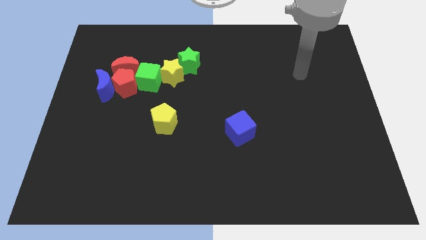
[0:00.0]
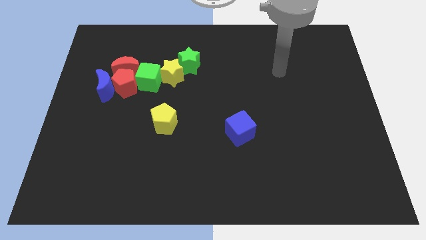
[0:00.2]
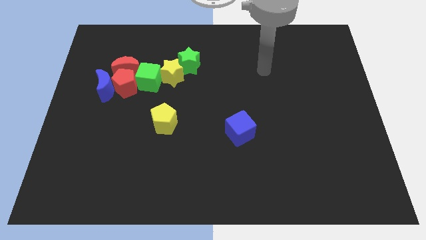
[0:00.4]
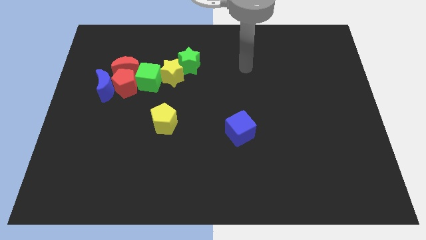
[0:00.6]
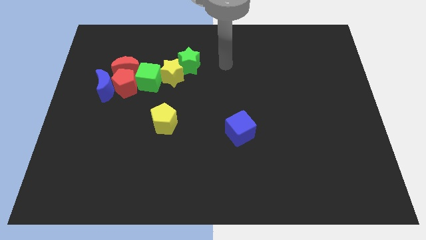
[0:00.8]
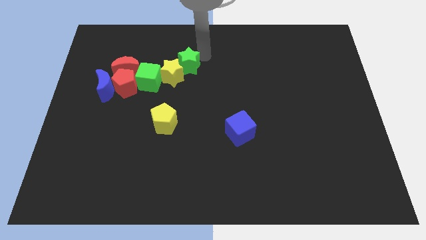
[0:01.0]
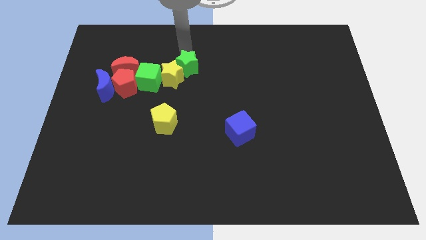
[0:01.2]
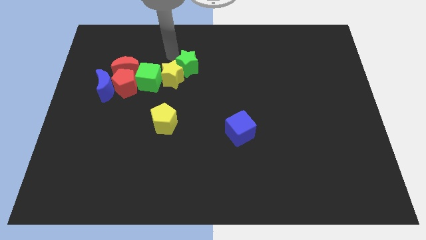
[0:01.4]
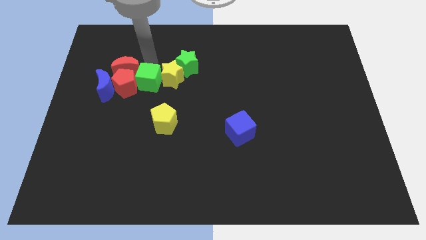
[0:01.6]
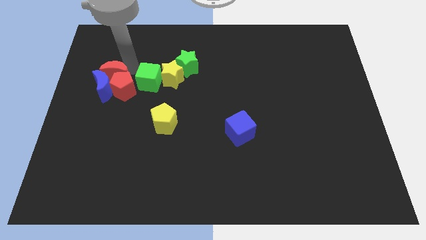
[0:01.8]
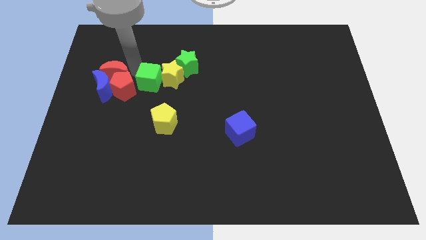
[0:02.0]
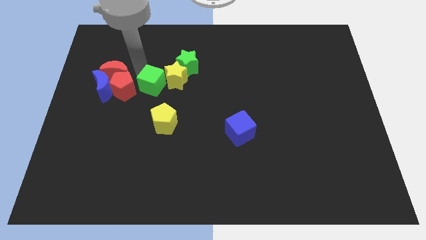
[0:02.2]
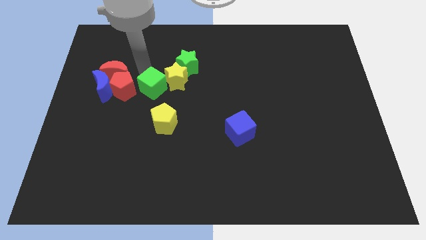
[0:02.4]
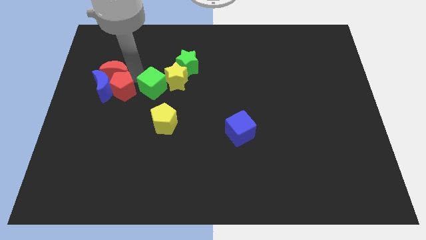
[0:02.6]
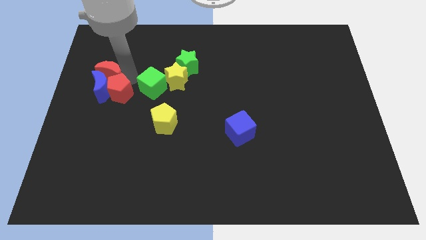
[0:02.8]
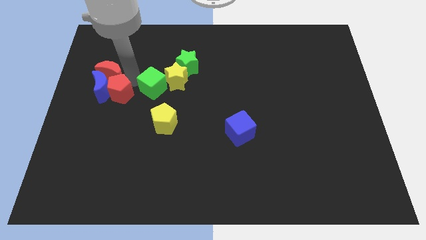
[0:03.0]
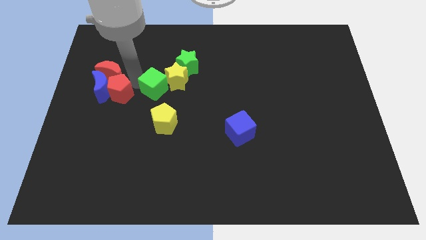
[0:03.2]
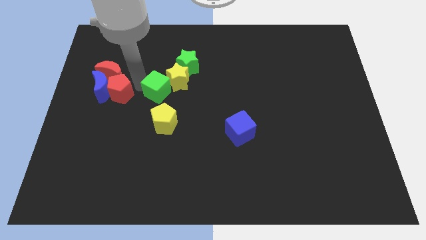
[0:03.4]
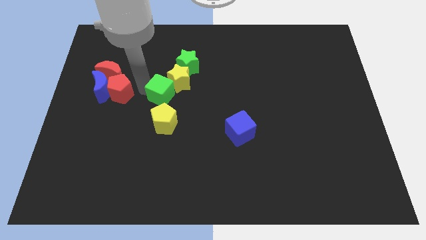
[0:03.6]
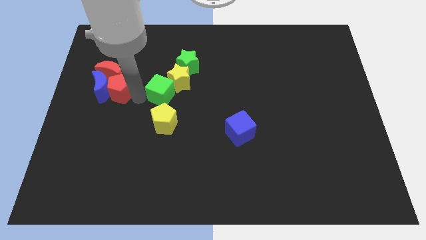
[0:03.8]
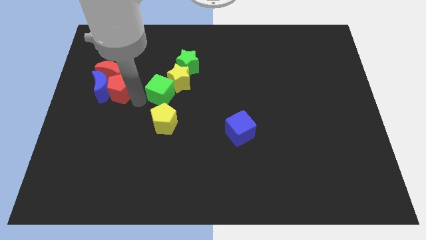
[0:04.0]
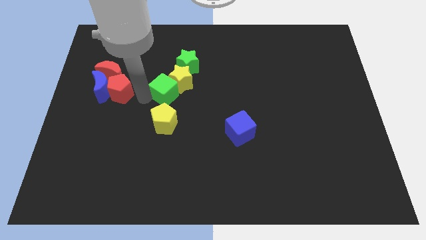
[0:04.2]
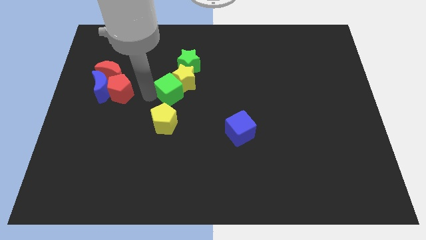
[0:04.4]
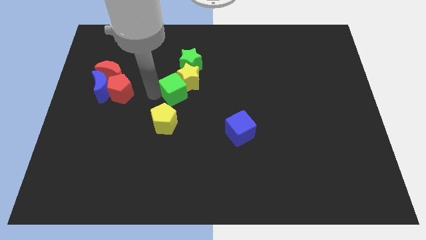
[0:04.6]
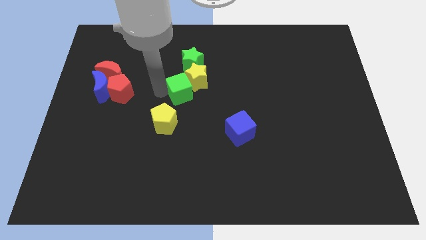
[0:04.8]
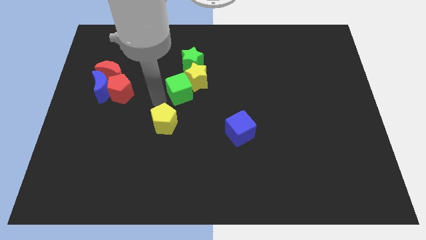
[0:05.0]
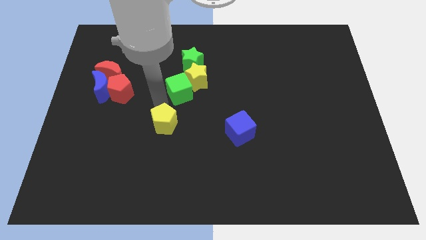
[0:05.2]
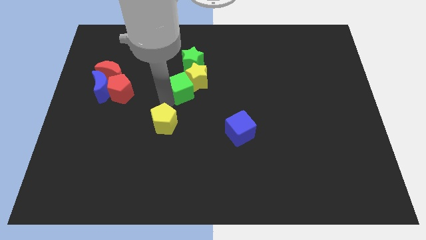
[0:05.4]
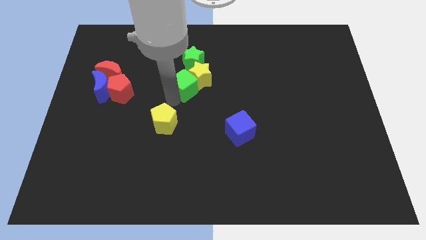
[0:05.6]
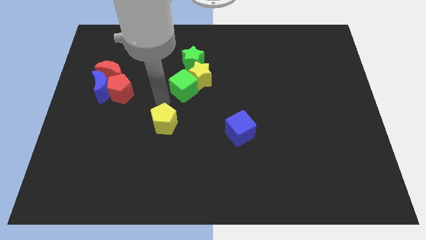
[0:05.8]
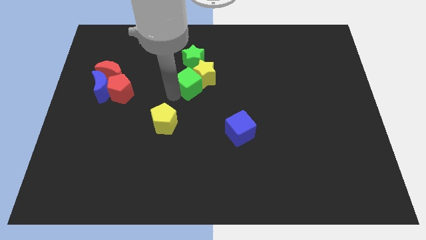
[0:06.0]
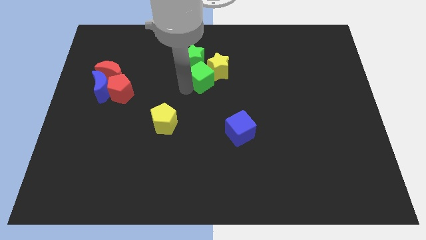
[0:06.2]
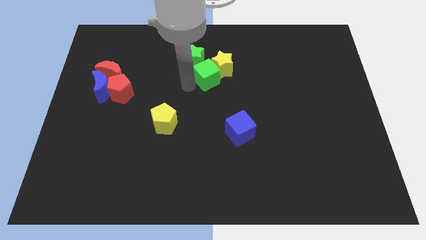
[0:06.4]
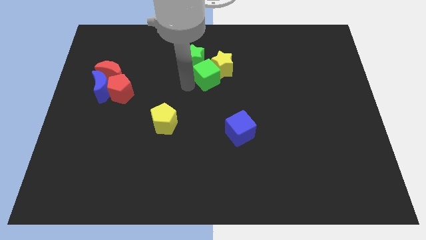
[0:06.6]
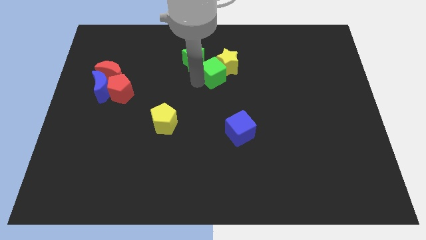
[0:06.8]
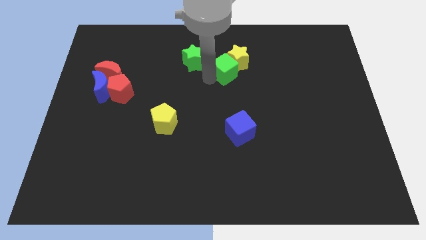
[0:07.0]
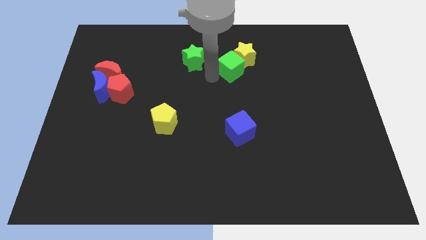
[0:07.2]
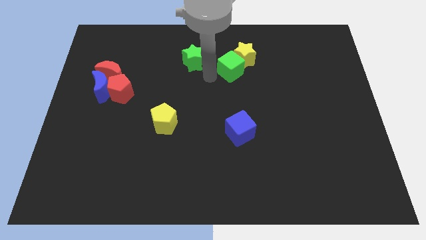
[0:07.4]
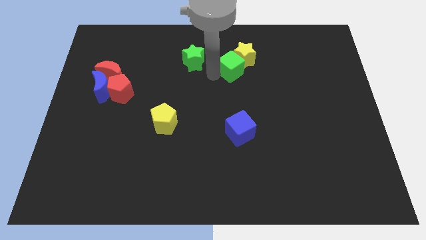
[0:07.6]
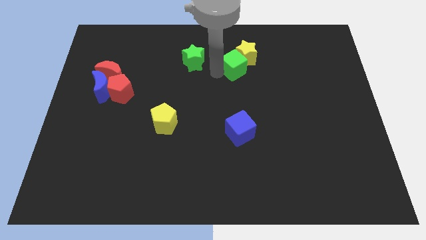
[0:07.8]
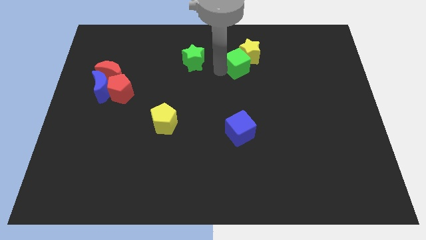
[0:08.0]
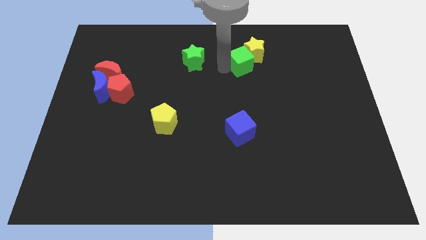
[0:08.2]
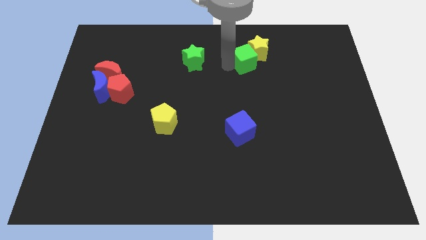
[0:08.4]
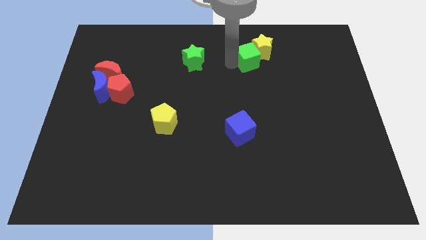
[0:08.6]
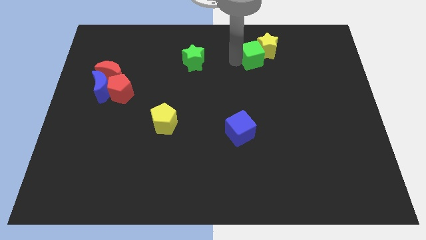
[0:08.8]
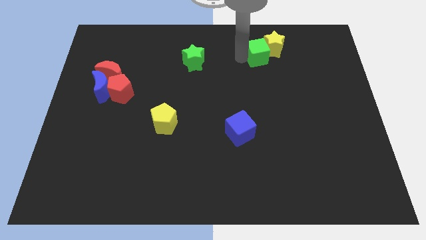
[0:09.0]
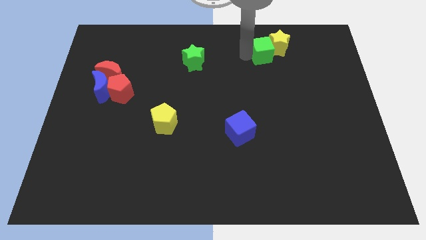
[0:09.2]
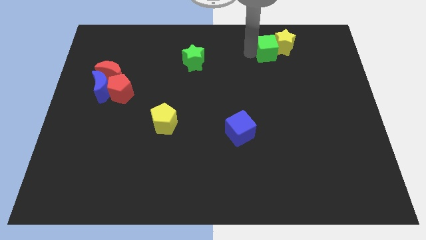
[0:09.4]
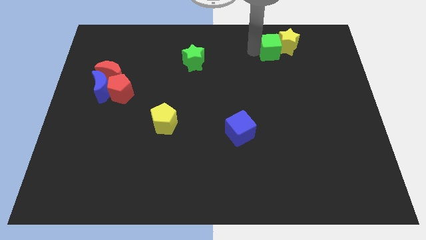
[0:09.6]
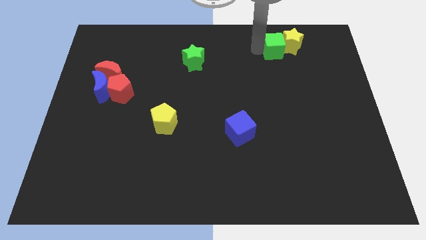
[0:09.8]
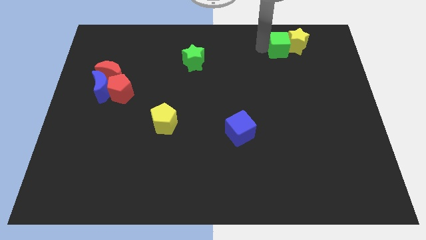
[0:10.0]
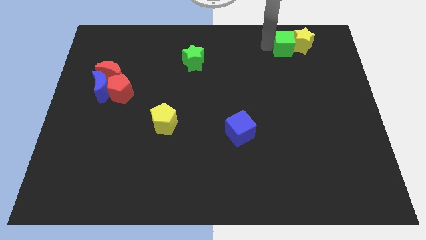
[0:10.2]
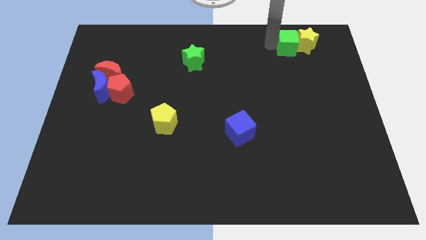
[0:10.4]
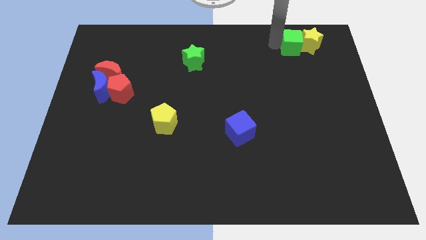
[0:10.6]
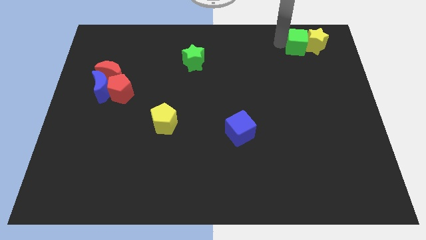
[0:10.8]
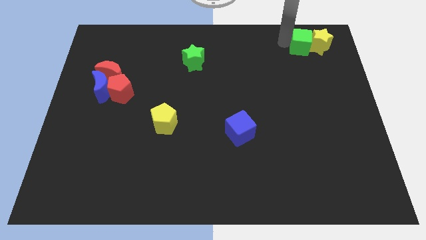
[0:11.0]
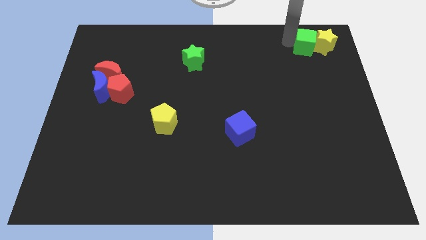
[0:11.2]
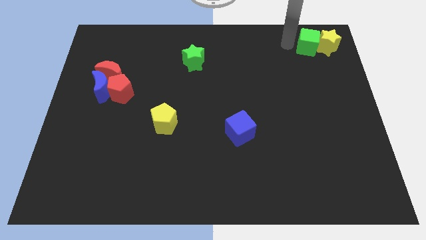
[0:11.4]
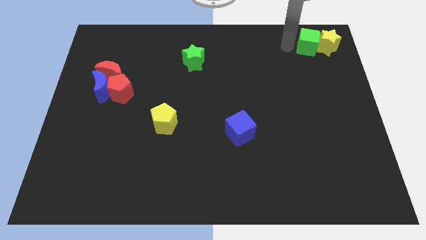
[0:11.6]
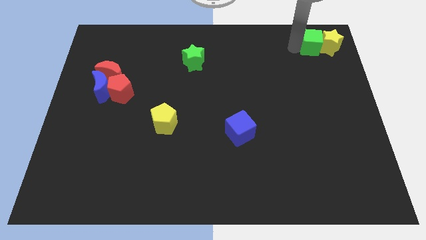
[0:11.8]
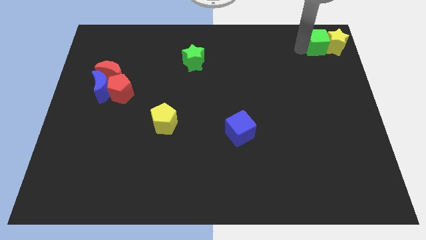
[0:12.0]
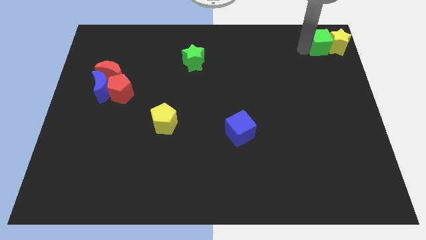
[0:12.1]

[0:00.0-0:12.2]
move the green cube to the upper right corner

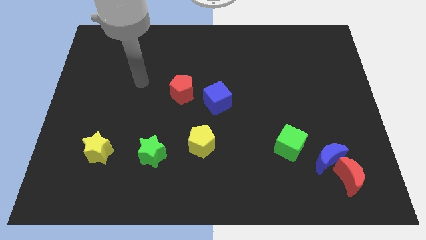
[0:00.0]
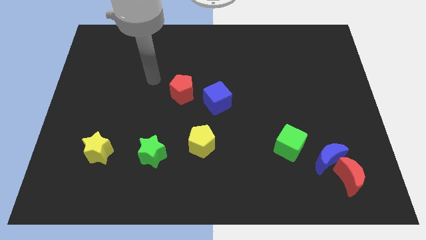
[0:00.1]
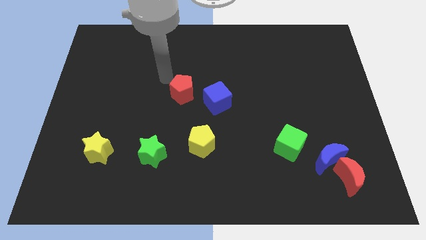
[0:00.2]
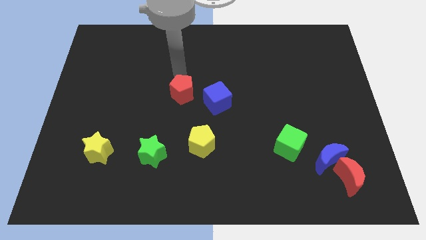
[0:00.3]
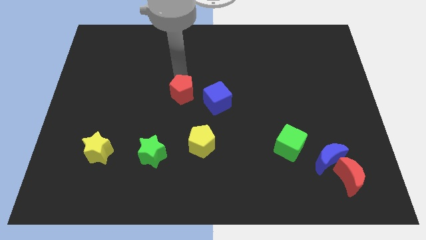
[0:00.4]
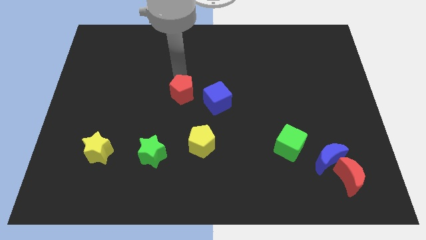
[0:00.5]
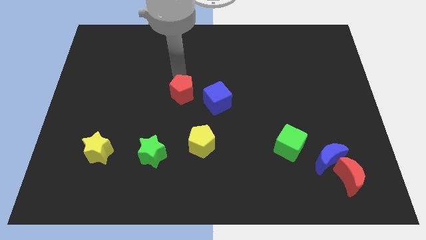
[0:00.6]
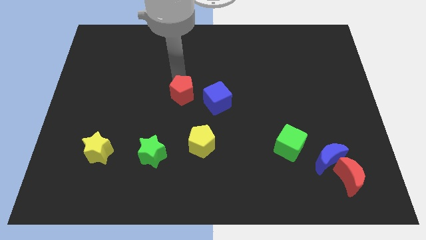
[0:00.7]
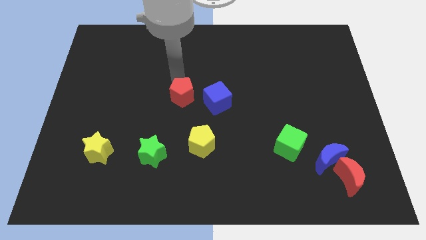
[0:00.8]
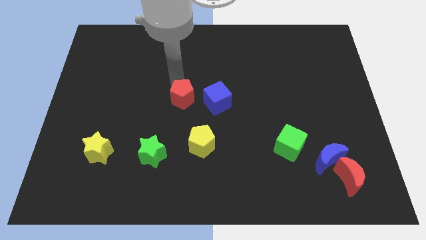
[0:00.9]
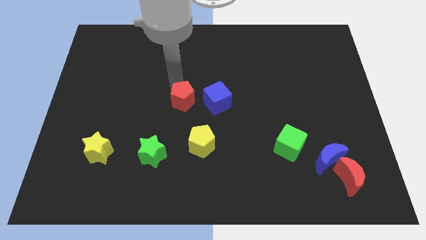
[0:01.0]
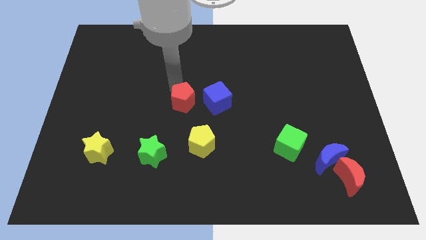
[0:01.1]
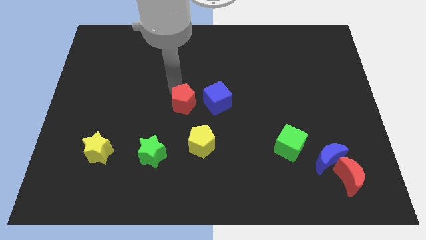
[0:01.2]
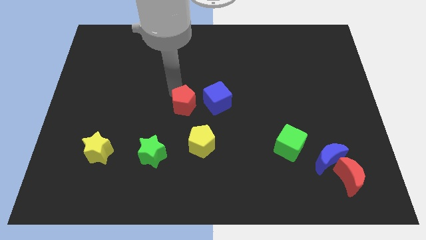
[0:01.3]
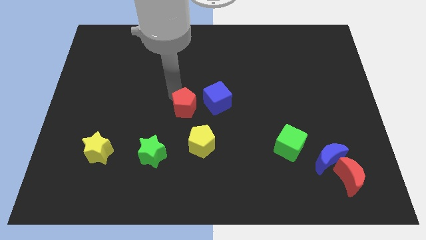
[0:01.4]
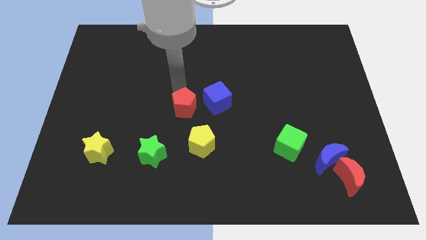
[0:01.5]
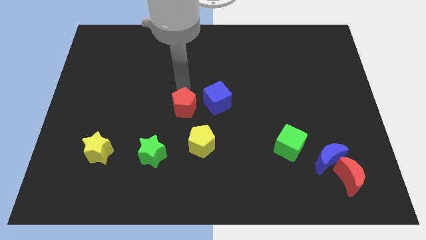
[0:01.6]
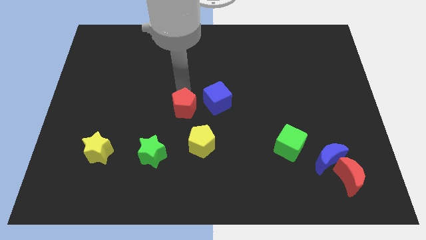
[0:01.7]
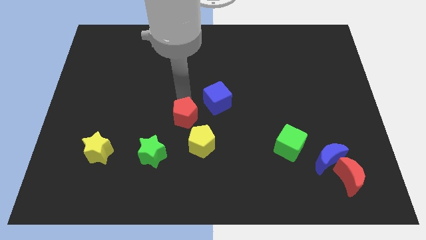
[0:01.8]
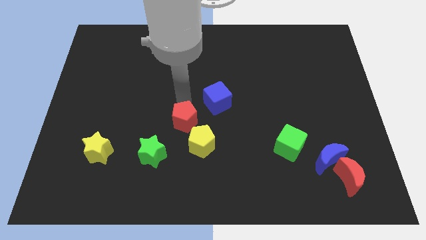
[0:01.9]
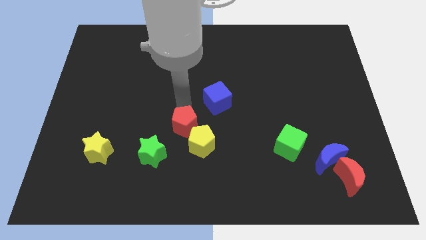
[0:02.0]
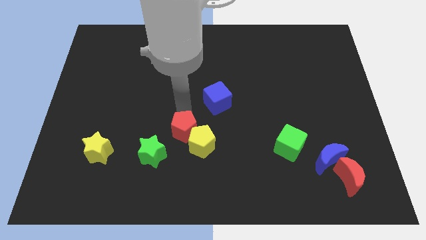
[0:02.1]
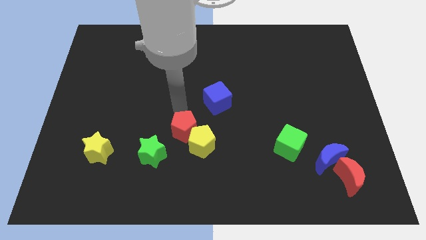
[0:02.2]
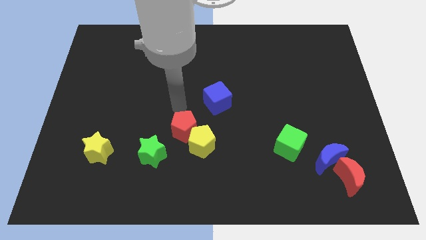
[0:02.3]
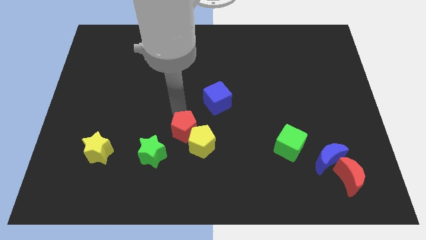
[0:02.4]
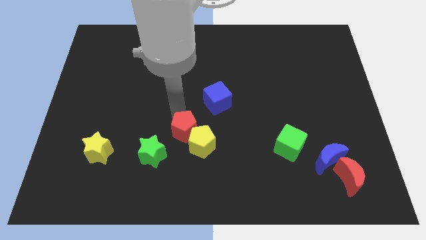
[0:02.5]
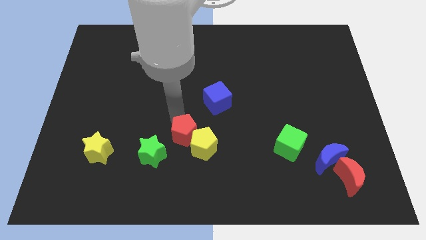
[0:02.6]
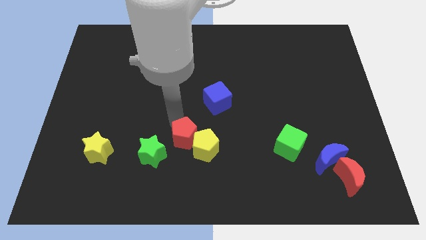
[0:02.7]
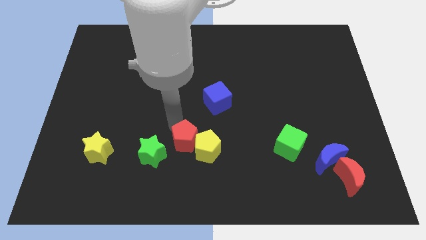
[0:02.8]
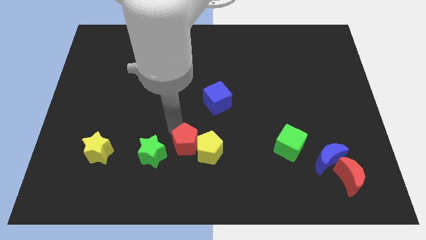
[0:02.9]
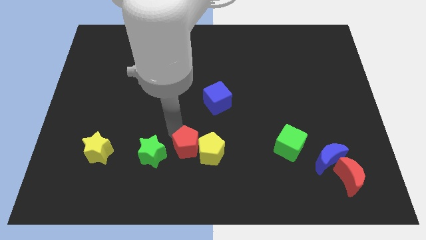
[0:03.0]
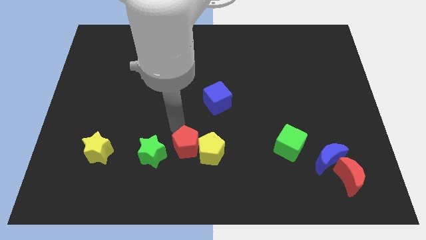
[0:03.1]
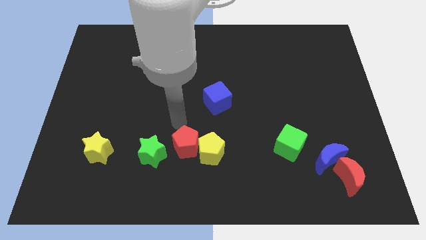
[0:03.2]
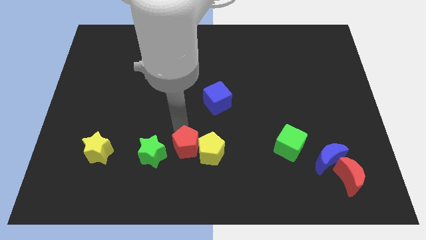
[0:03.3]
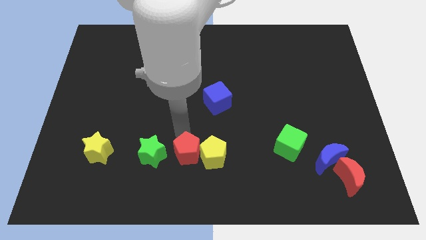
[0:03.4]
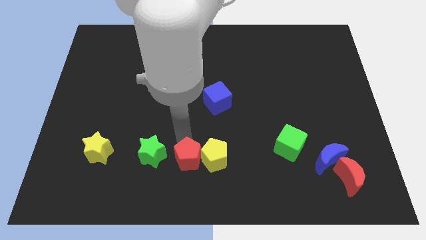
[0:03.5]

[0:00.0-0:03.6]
push the red pentagon to the bottom side
